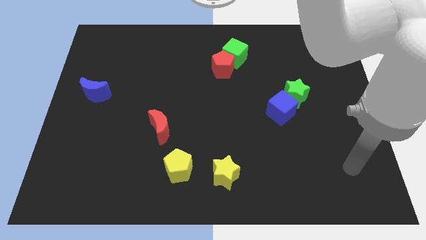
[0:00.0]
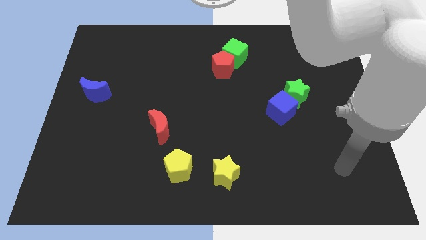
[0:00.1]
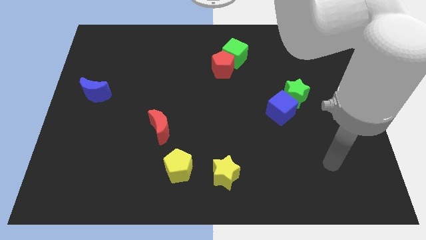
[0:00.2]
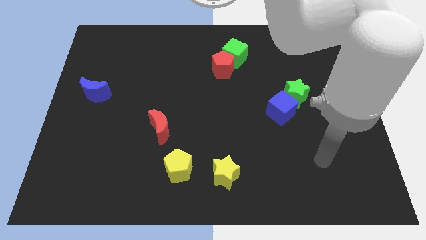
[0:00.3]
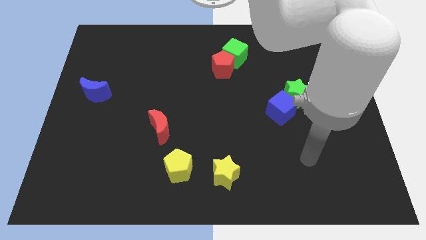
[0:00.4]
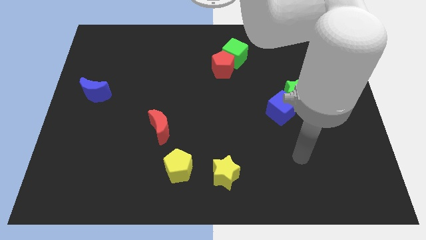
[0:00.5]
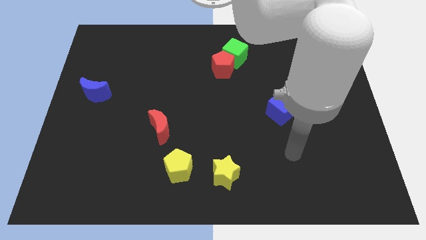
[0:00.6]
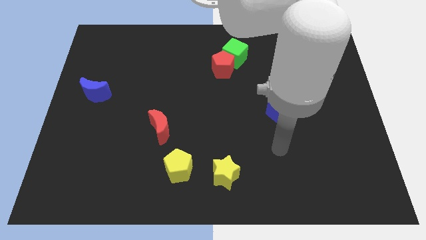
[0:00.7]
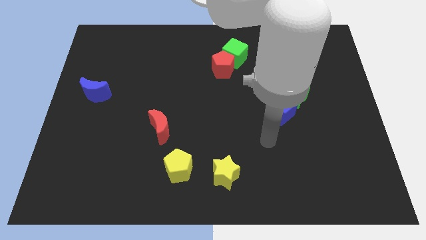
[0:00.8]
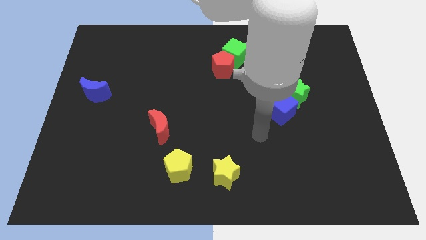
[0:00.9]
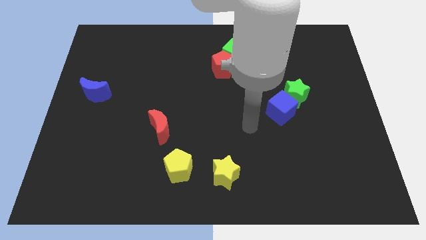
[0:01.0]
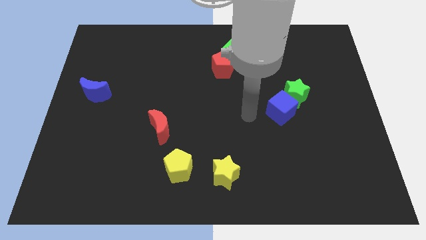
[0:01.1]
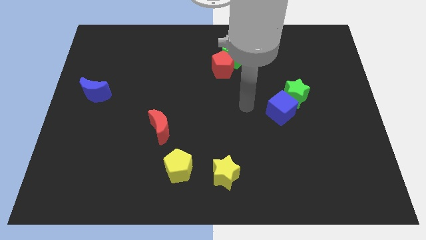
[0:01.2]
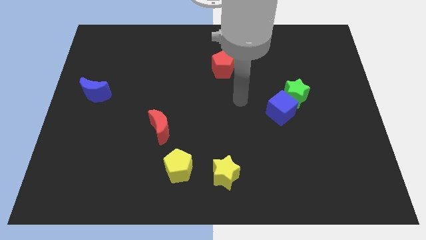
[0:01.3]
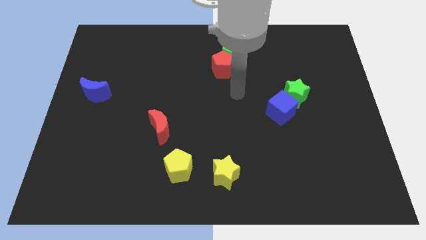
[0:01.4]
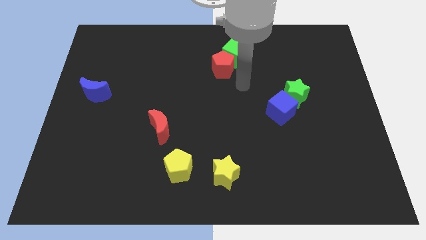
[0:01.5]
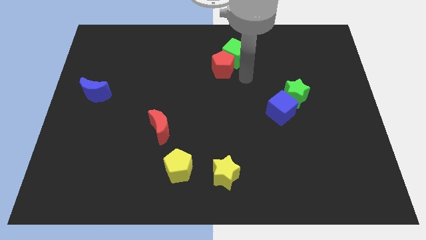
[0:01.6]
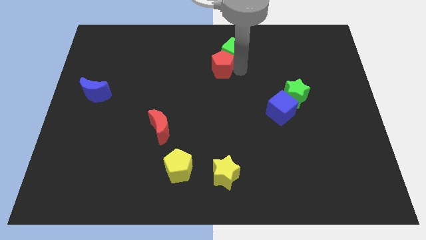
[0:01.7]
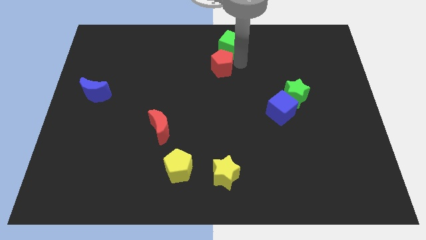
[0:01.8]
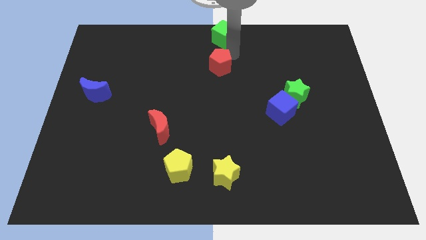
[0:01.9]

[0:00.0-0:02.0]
separate the red pentagon from the green cube

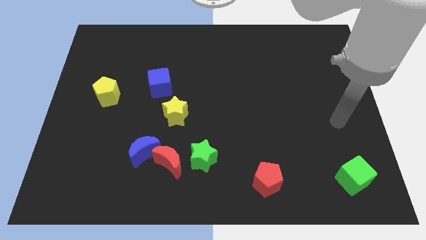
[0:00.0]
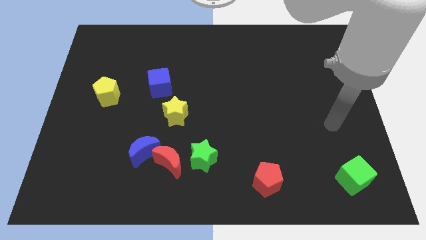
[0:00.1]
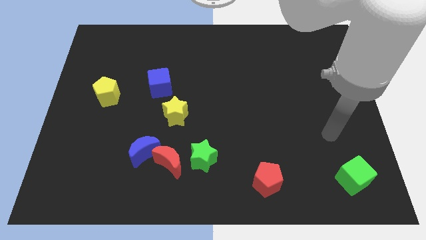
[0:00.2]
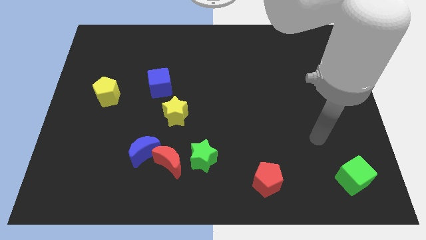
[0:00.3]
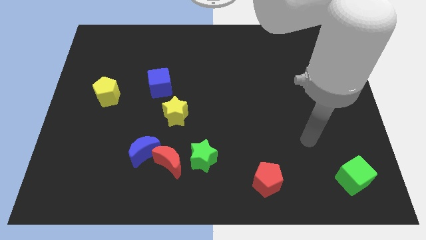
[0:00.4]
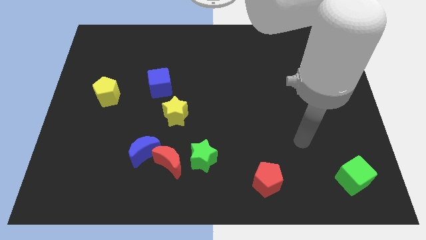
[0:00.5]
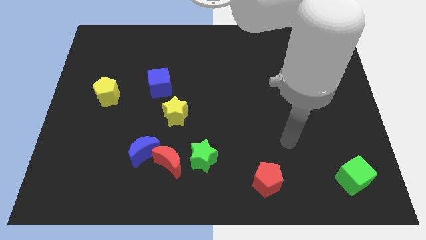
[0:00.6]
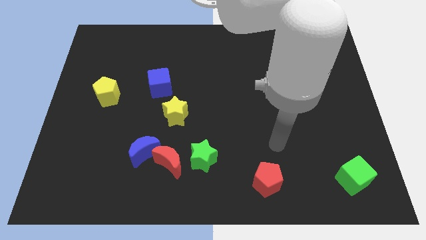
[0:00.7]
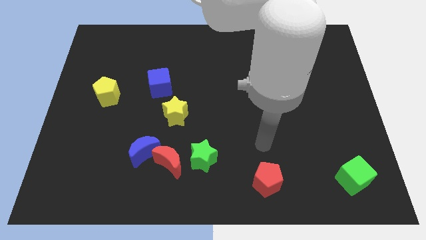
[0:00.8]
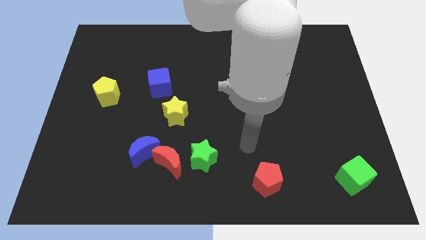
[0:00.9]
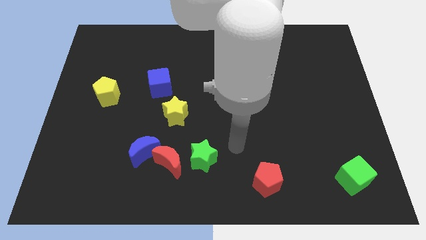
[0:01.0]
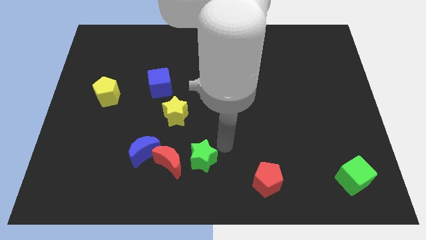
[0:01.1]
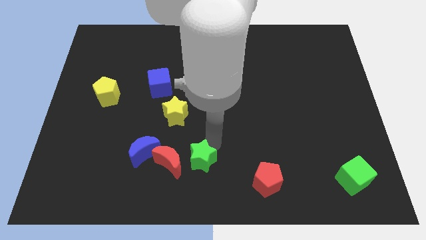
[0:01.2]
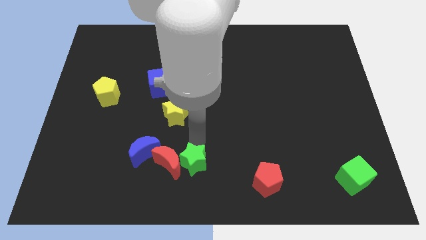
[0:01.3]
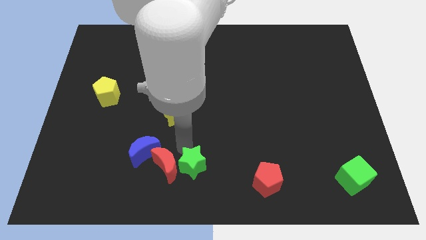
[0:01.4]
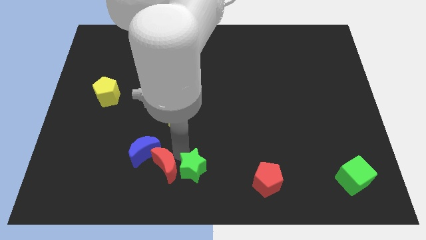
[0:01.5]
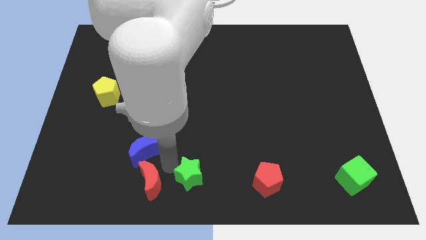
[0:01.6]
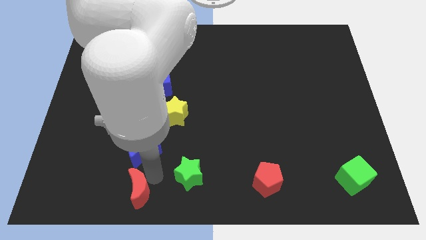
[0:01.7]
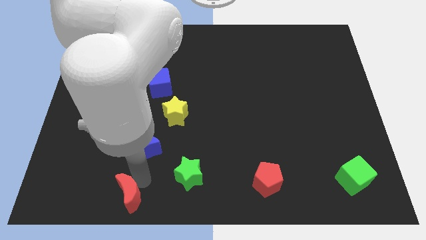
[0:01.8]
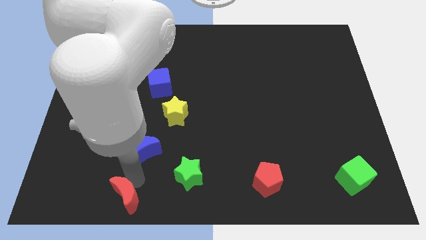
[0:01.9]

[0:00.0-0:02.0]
pull the blue moon apart from the red moon

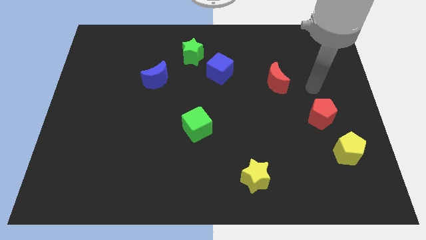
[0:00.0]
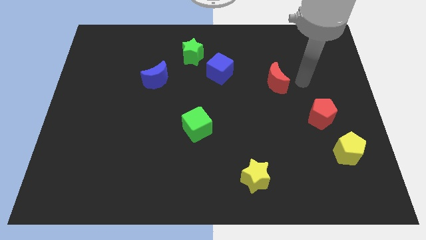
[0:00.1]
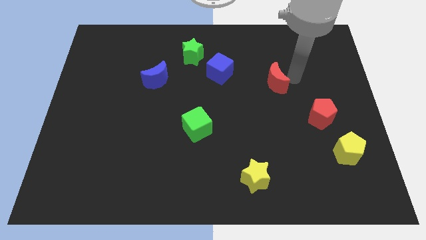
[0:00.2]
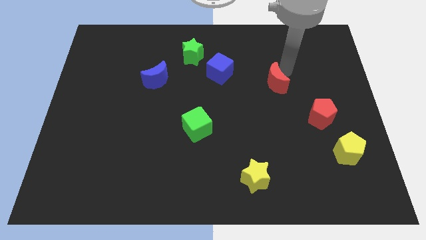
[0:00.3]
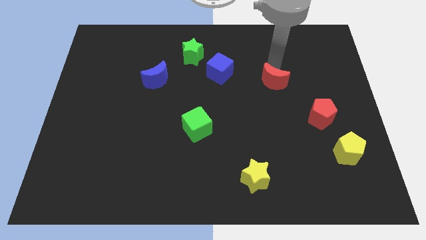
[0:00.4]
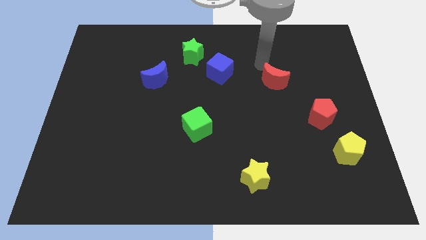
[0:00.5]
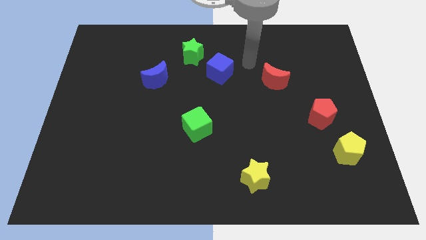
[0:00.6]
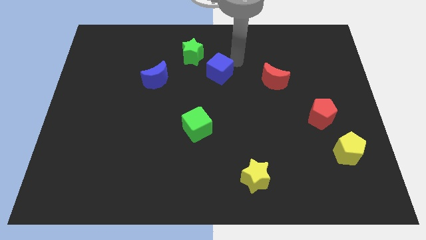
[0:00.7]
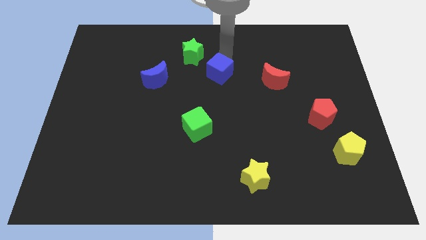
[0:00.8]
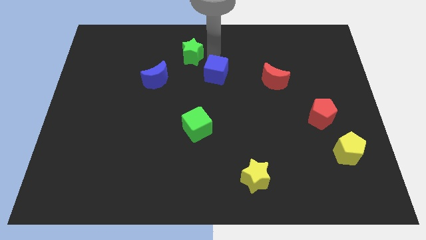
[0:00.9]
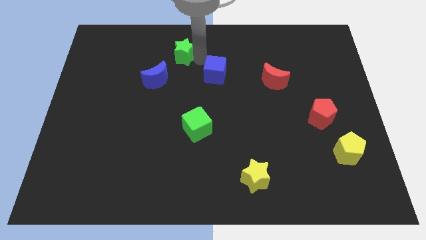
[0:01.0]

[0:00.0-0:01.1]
separate the blue cube from the green star

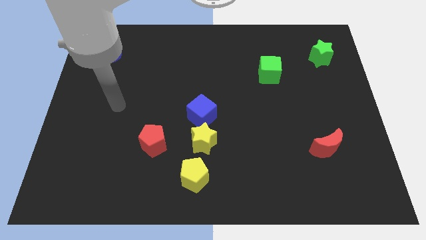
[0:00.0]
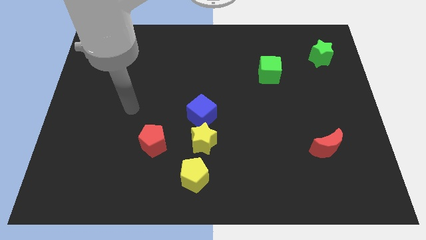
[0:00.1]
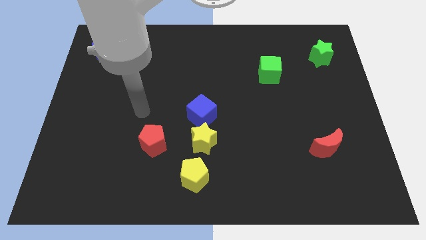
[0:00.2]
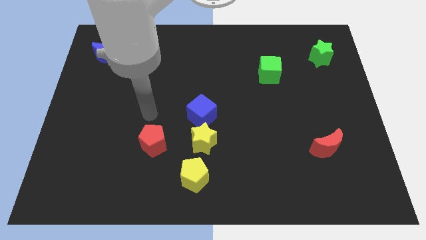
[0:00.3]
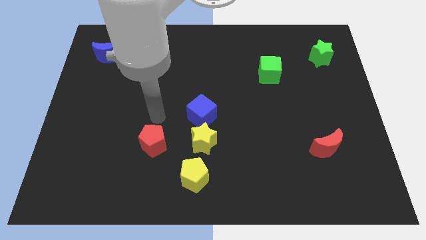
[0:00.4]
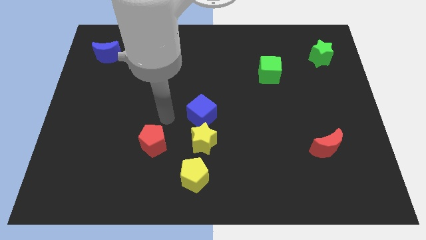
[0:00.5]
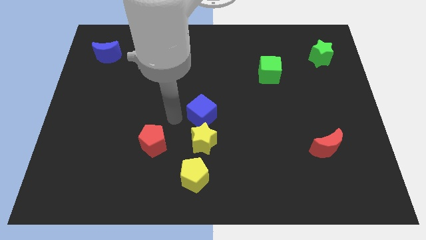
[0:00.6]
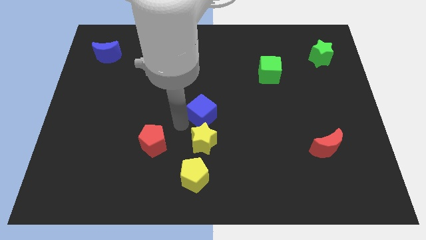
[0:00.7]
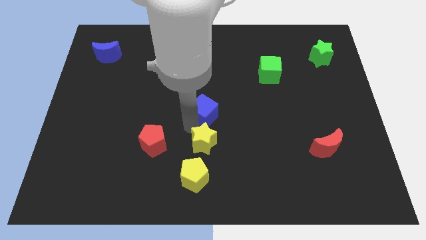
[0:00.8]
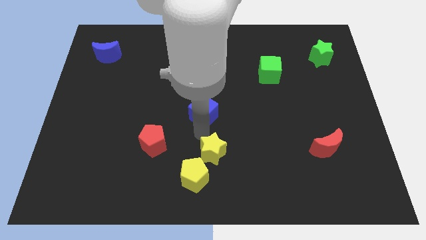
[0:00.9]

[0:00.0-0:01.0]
move the blue cube away from the yellow star

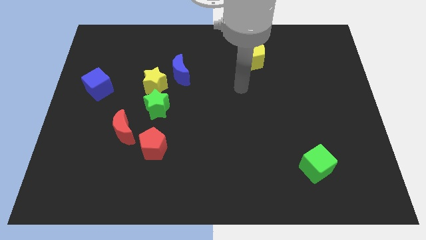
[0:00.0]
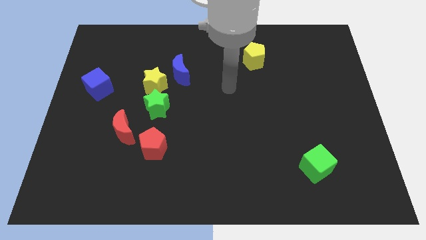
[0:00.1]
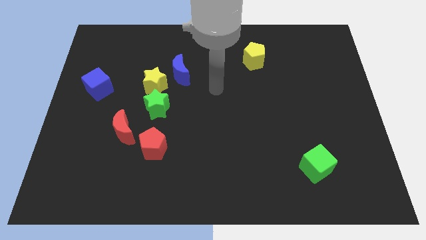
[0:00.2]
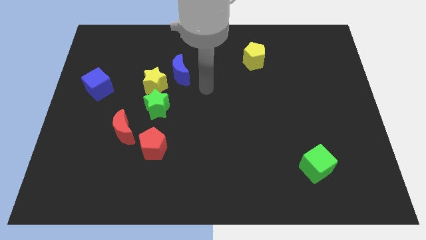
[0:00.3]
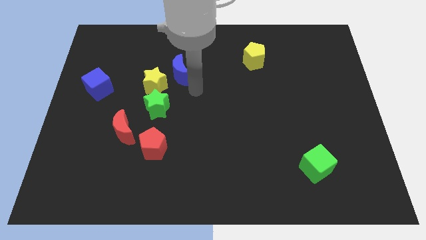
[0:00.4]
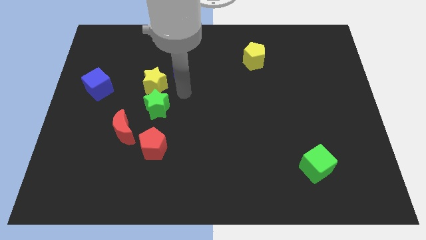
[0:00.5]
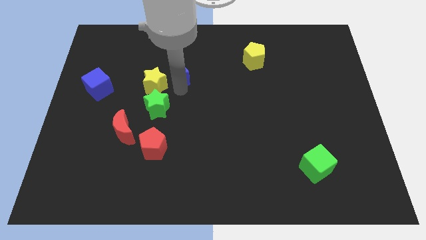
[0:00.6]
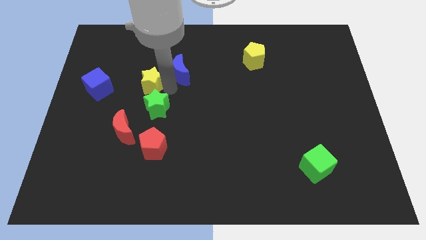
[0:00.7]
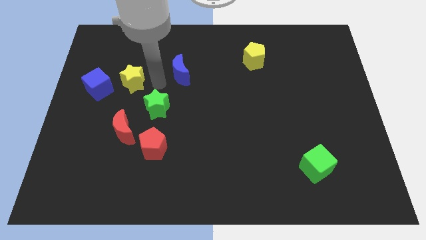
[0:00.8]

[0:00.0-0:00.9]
pull the blue moon apart from the yellow star

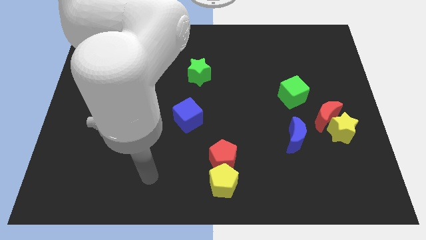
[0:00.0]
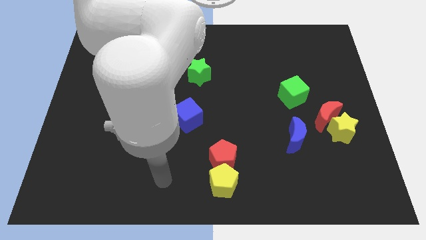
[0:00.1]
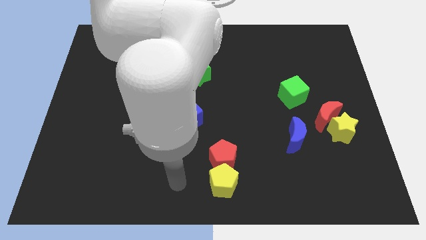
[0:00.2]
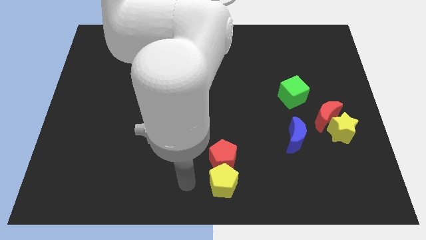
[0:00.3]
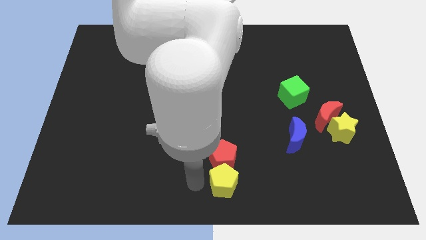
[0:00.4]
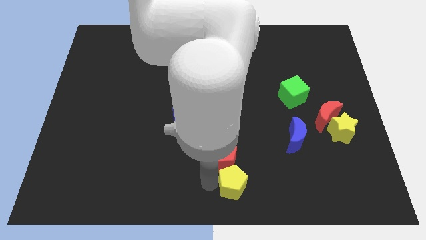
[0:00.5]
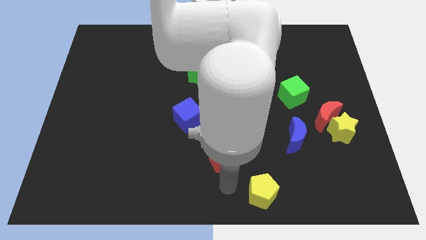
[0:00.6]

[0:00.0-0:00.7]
move the red pentagon away from the yellow pentagon

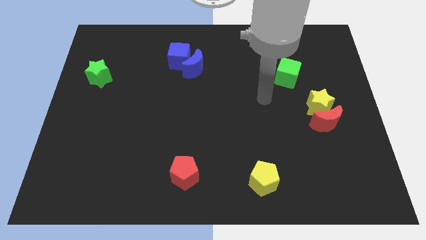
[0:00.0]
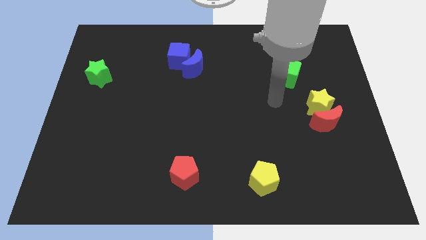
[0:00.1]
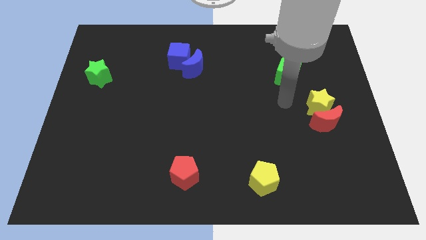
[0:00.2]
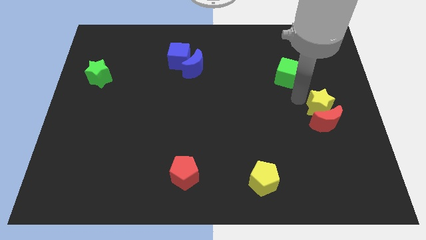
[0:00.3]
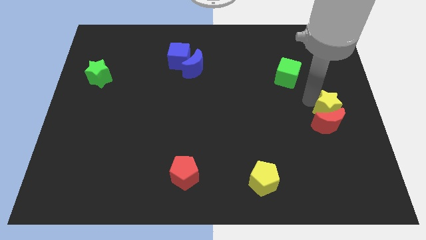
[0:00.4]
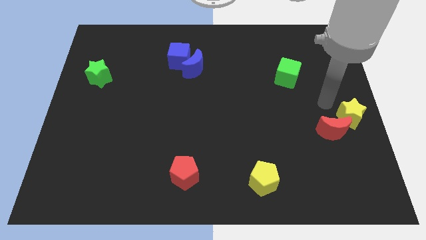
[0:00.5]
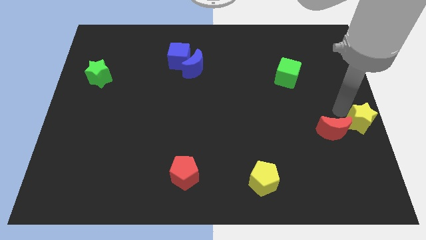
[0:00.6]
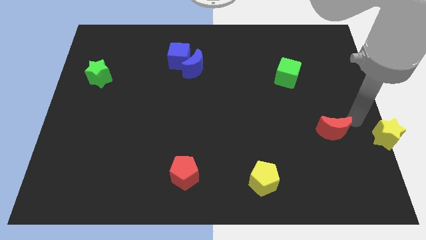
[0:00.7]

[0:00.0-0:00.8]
pull the red moon apart from the yellow star

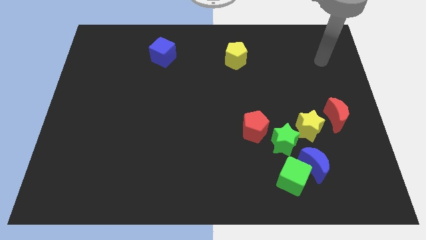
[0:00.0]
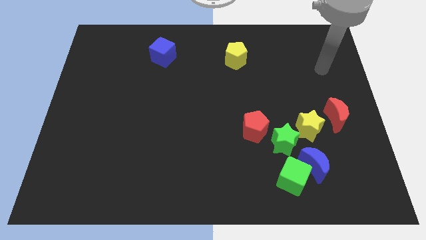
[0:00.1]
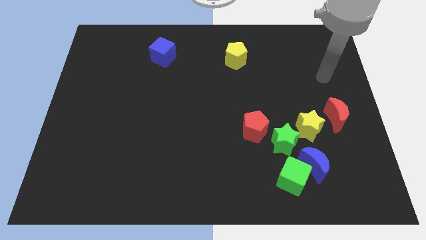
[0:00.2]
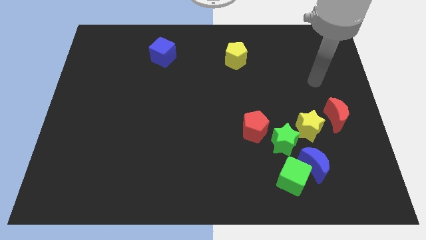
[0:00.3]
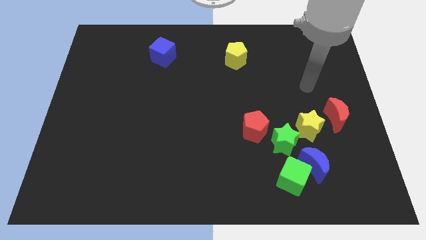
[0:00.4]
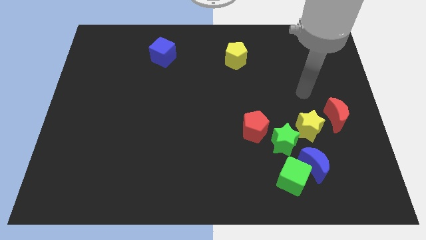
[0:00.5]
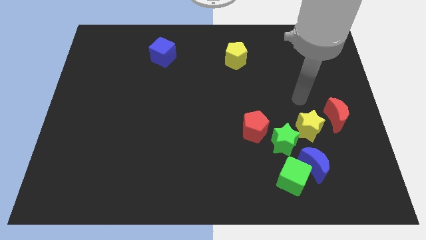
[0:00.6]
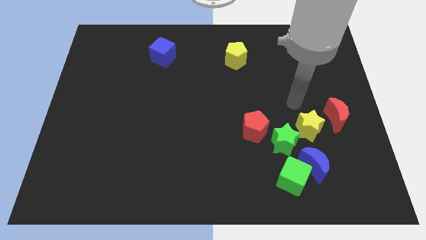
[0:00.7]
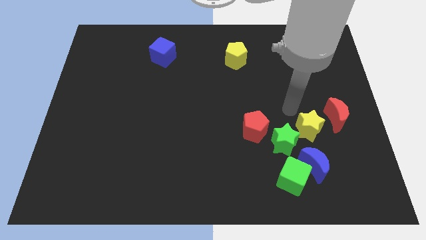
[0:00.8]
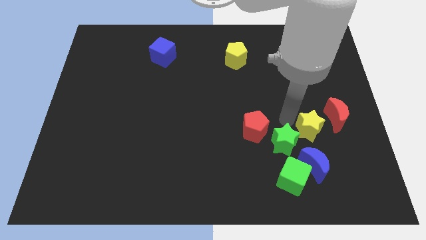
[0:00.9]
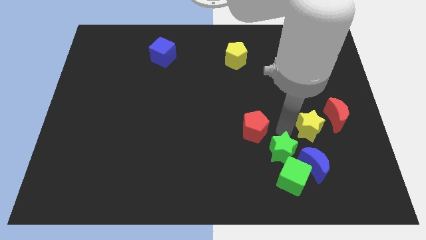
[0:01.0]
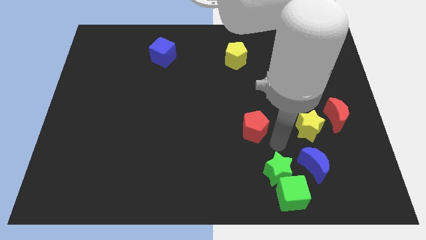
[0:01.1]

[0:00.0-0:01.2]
separate the red pentagon from the green star
